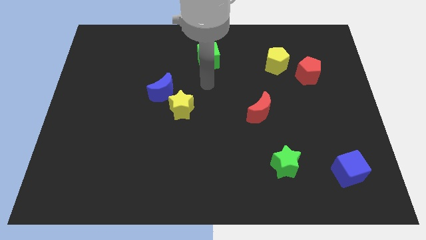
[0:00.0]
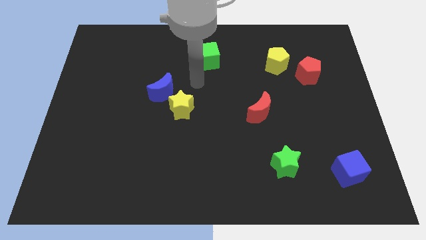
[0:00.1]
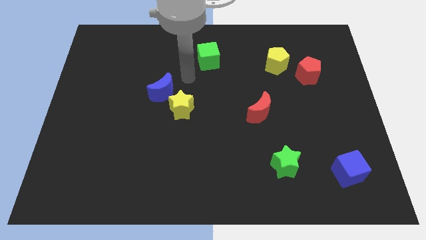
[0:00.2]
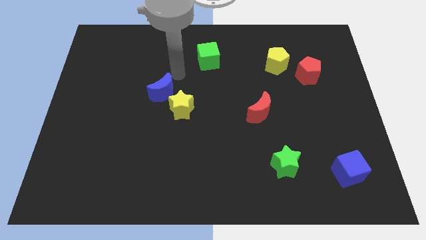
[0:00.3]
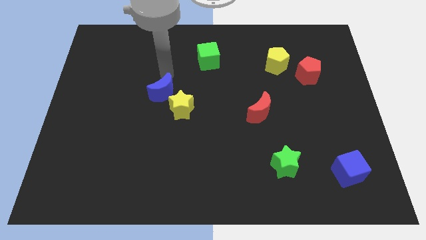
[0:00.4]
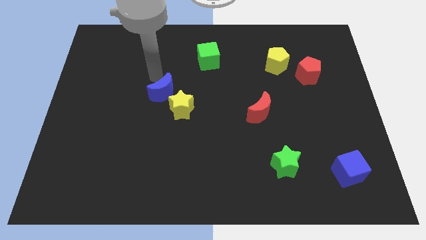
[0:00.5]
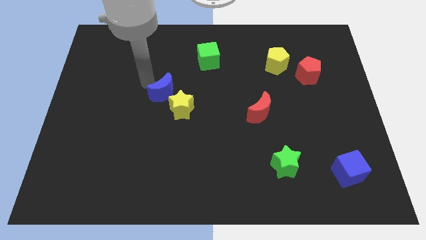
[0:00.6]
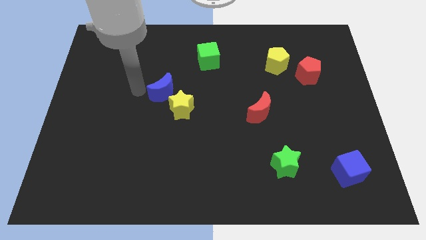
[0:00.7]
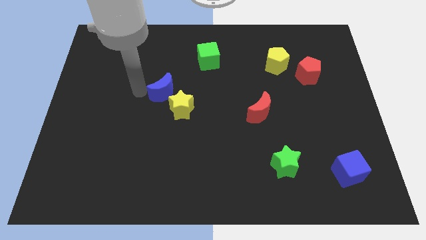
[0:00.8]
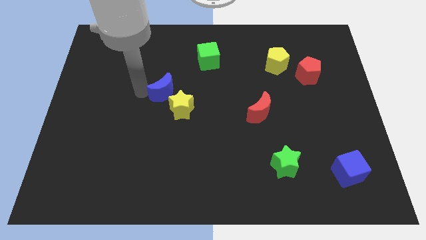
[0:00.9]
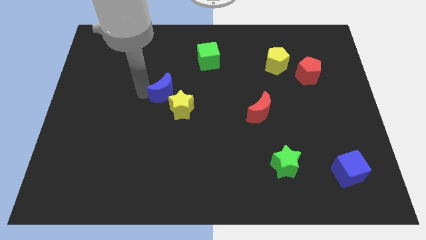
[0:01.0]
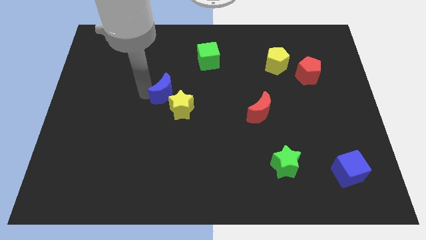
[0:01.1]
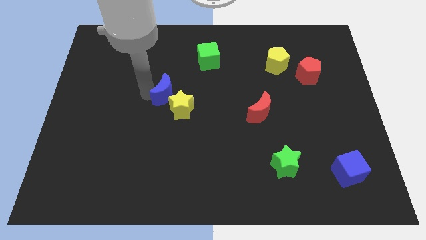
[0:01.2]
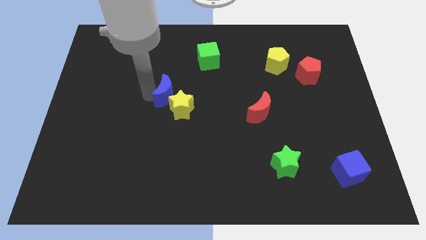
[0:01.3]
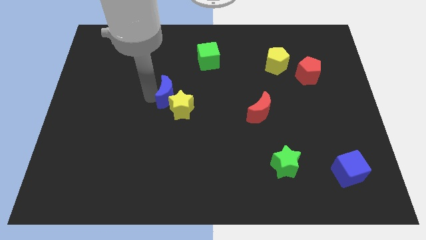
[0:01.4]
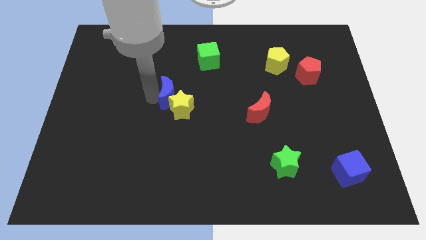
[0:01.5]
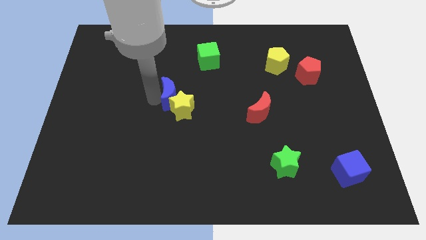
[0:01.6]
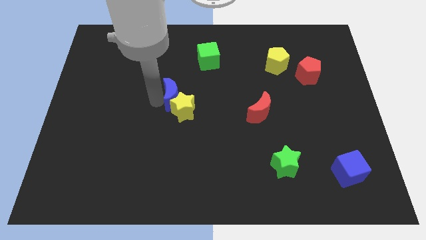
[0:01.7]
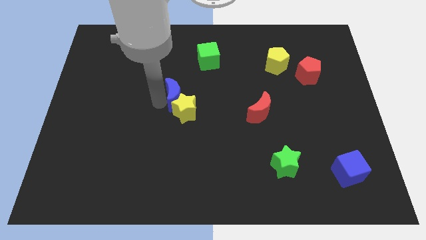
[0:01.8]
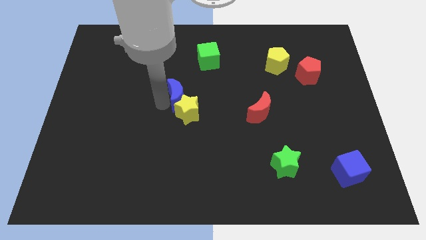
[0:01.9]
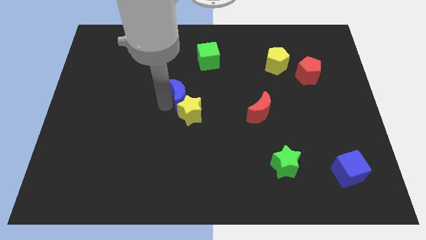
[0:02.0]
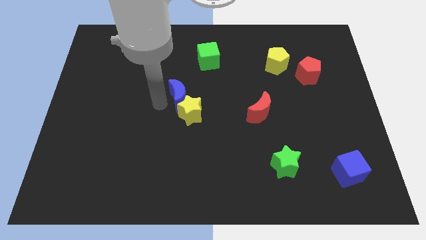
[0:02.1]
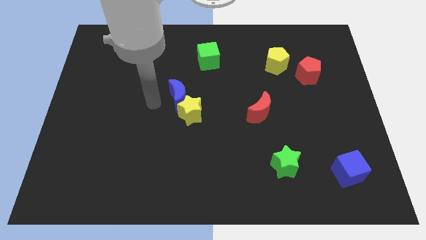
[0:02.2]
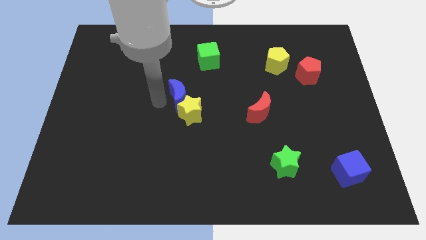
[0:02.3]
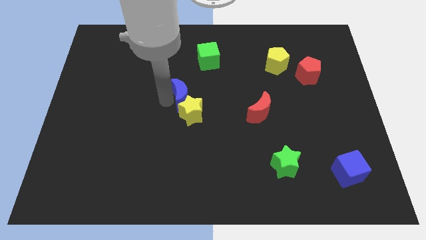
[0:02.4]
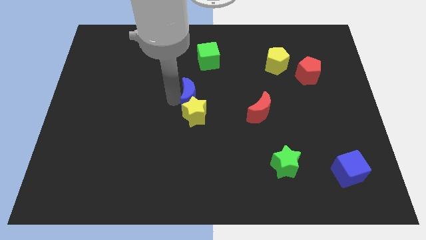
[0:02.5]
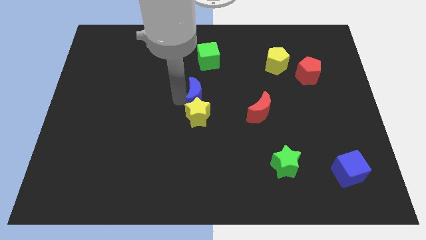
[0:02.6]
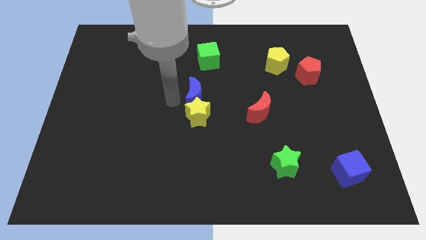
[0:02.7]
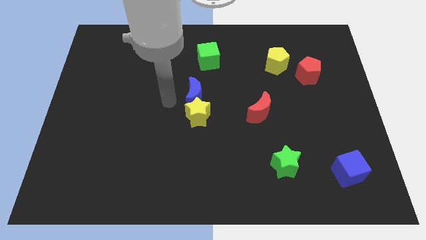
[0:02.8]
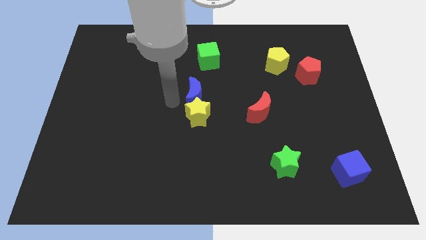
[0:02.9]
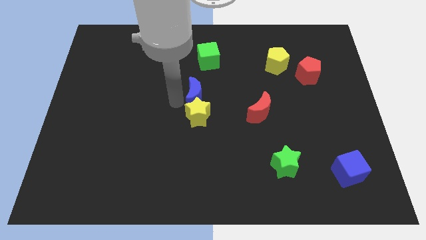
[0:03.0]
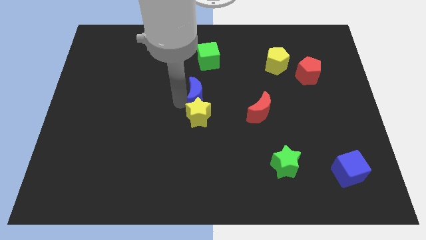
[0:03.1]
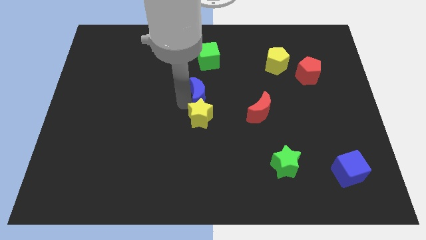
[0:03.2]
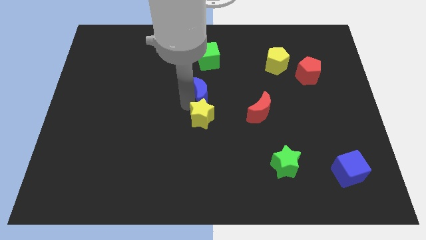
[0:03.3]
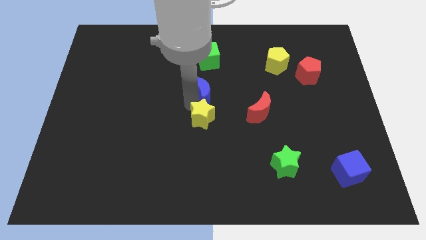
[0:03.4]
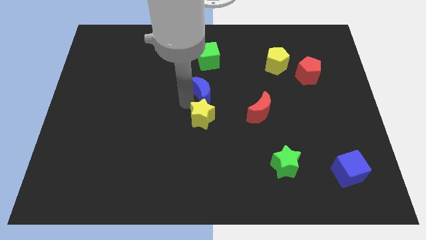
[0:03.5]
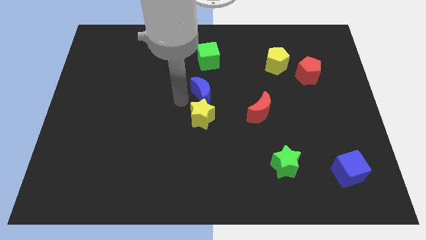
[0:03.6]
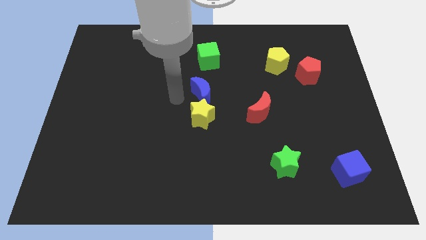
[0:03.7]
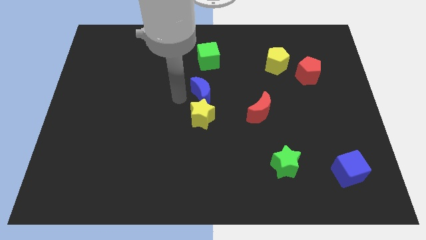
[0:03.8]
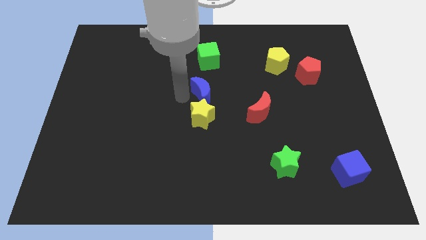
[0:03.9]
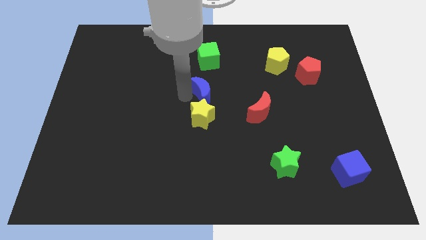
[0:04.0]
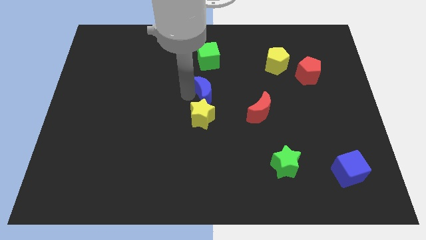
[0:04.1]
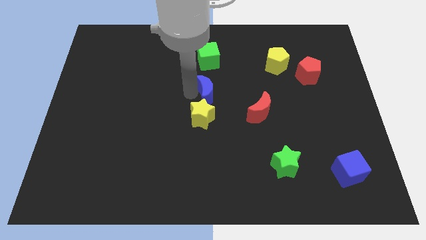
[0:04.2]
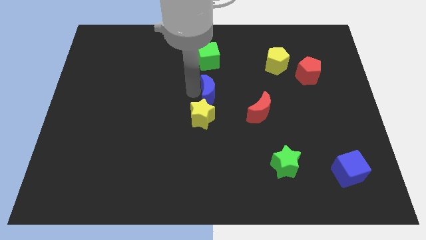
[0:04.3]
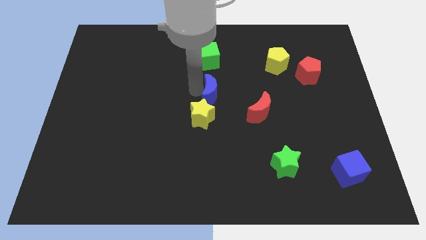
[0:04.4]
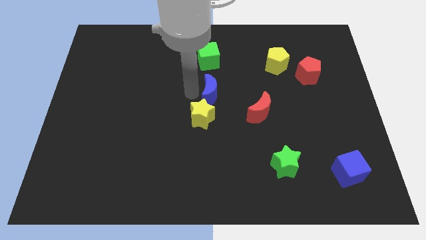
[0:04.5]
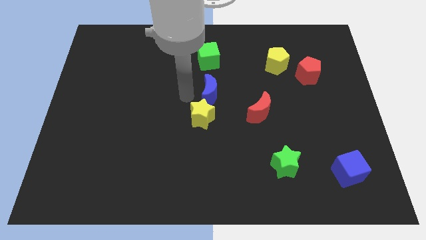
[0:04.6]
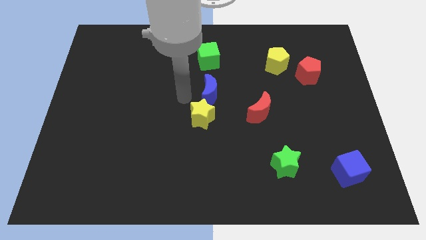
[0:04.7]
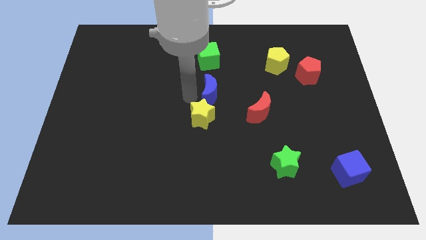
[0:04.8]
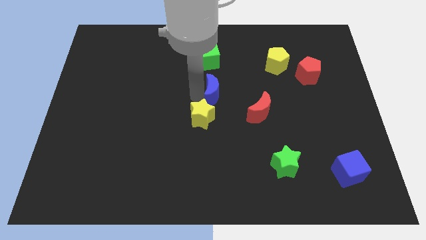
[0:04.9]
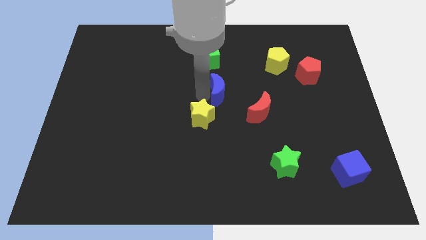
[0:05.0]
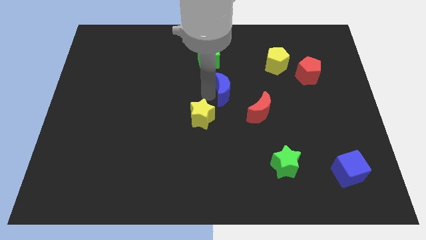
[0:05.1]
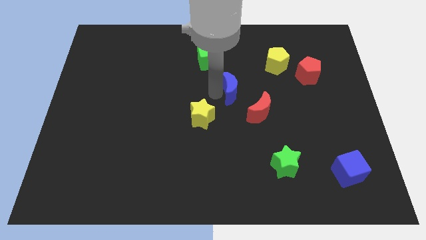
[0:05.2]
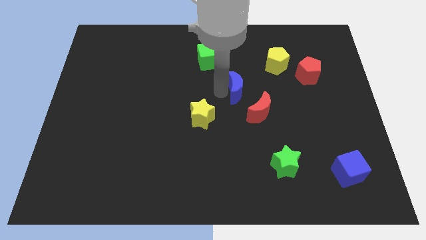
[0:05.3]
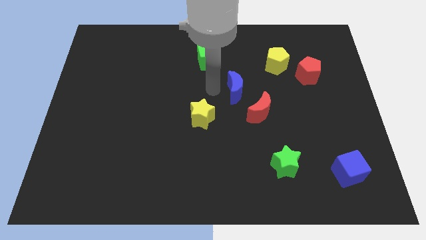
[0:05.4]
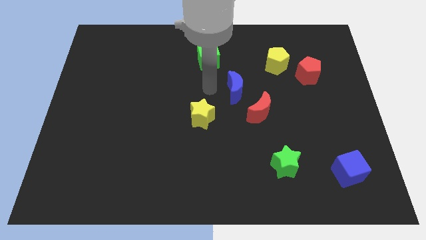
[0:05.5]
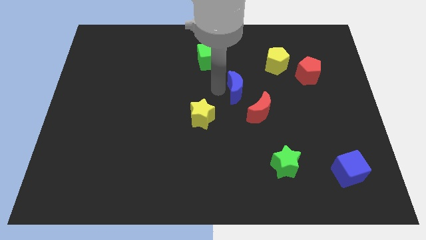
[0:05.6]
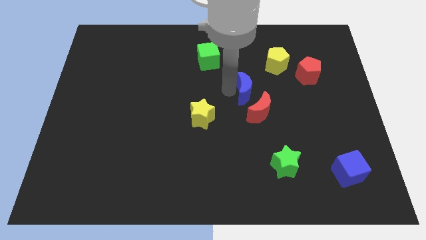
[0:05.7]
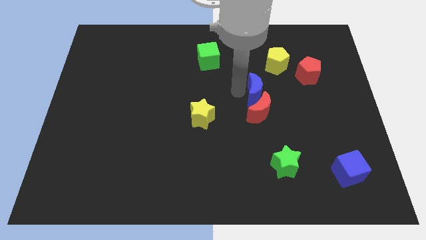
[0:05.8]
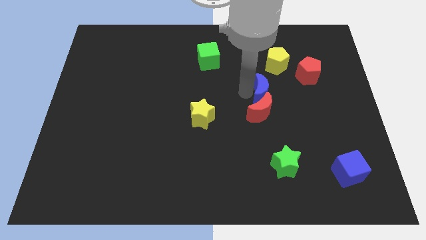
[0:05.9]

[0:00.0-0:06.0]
move the blue moon to the bottom of the yellow pentagon

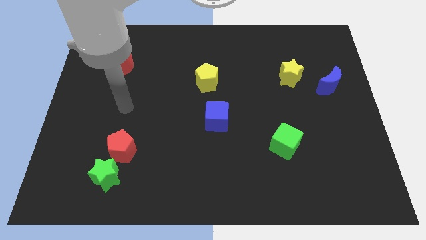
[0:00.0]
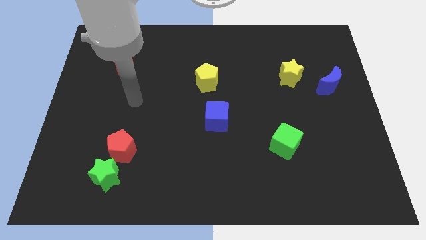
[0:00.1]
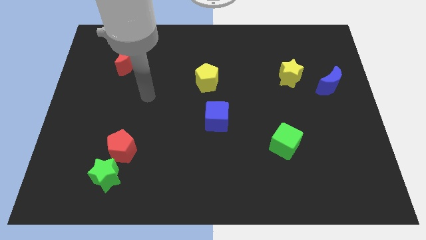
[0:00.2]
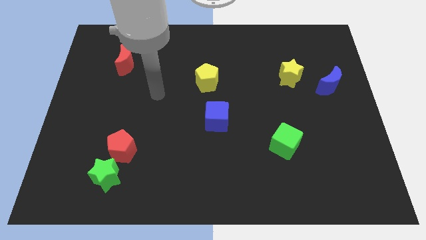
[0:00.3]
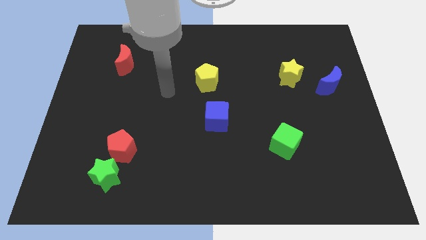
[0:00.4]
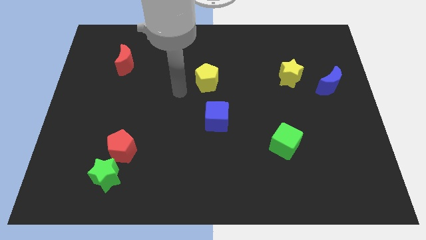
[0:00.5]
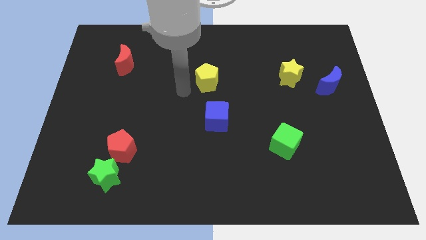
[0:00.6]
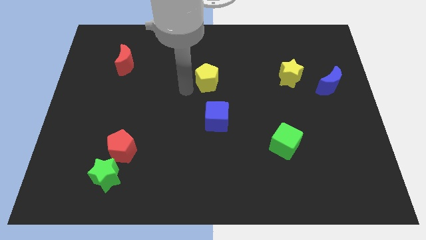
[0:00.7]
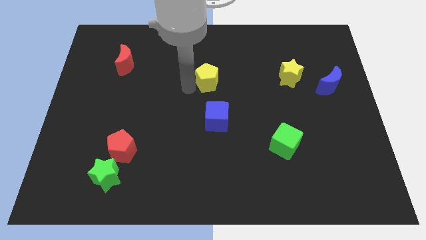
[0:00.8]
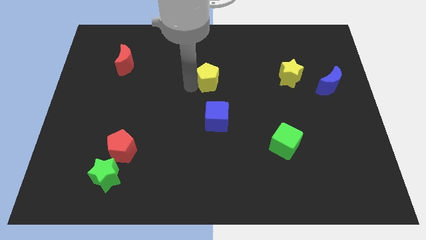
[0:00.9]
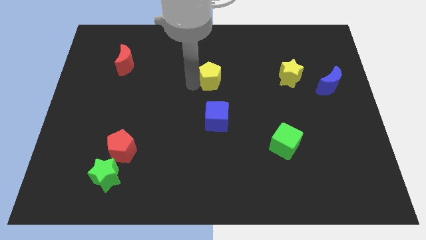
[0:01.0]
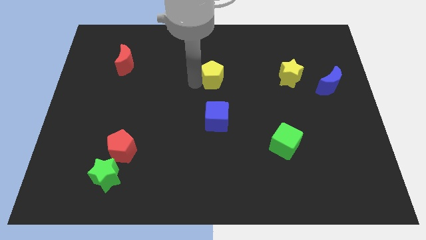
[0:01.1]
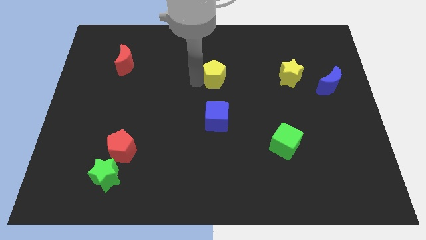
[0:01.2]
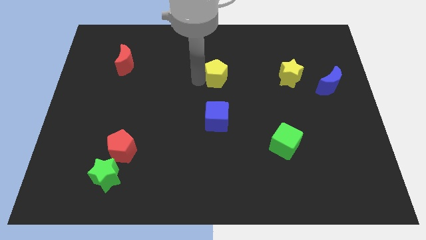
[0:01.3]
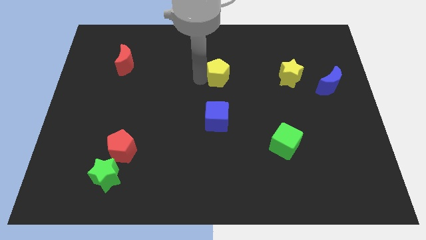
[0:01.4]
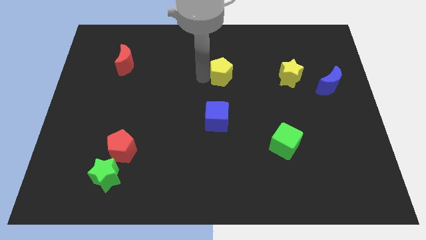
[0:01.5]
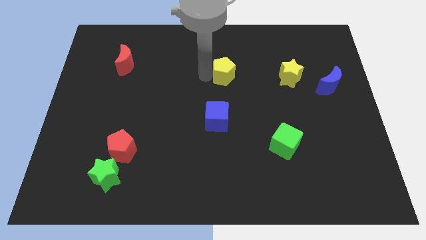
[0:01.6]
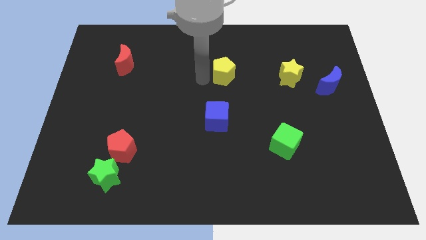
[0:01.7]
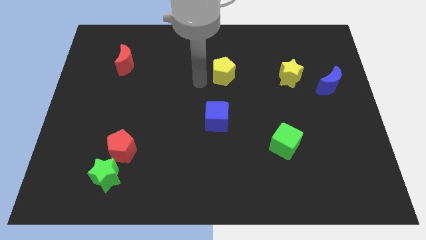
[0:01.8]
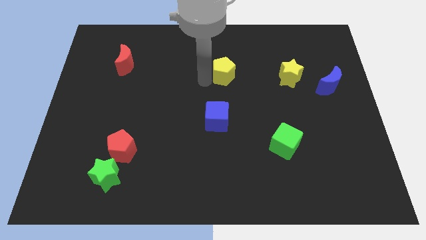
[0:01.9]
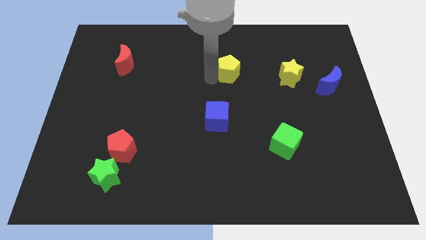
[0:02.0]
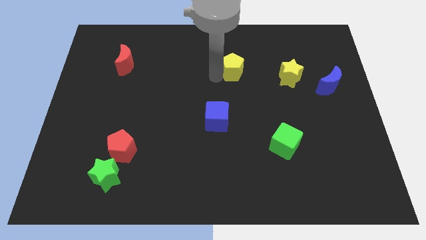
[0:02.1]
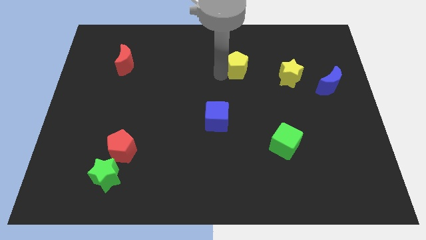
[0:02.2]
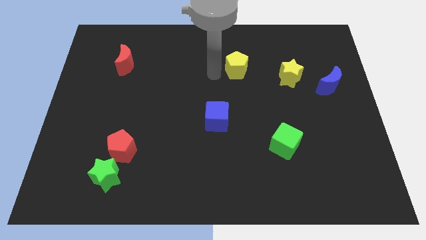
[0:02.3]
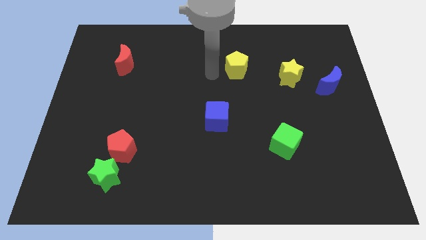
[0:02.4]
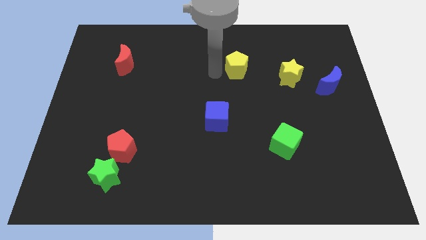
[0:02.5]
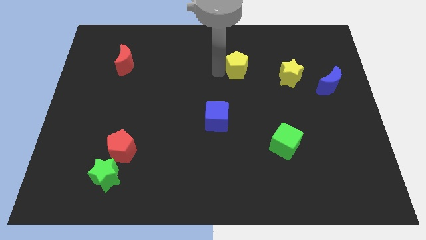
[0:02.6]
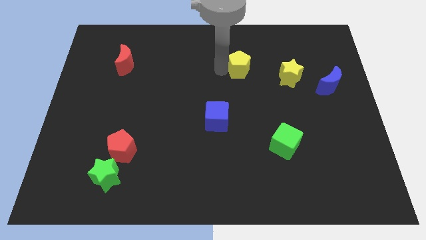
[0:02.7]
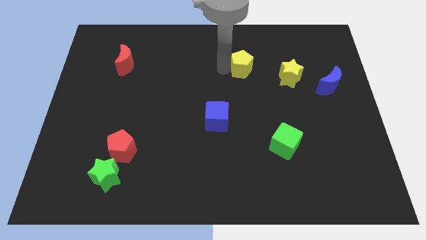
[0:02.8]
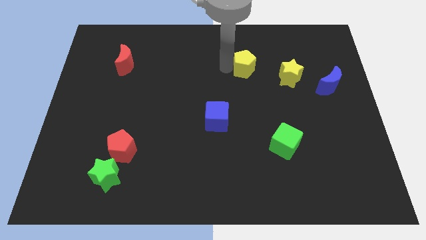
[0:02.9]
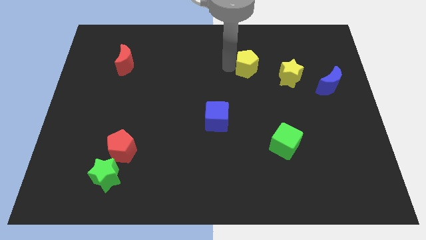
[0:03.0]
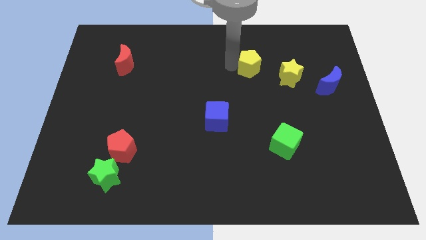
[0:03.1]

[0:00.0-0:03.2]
put the yellow pentagon to the top left side of the yellow star
